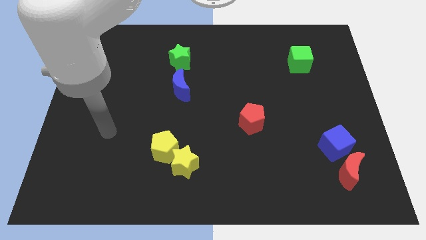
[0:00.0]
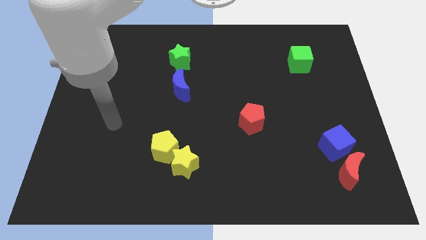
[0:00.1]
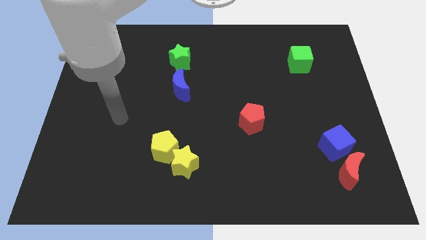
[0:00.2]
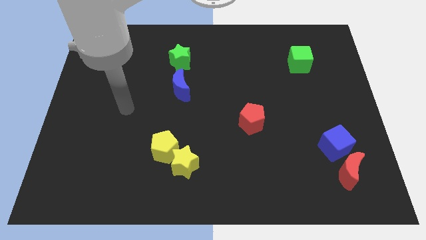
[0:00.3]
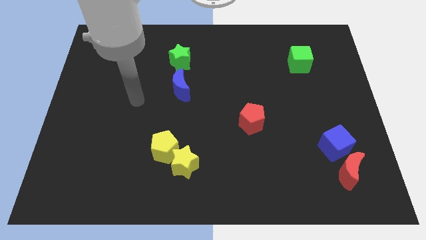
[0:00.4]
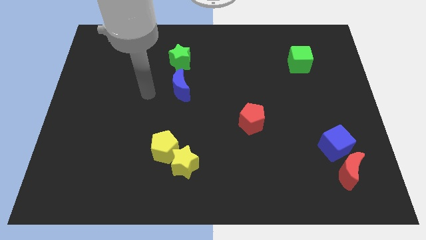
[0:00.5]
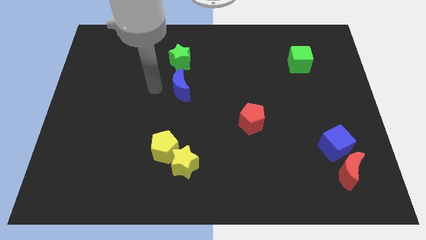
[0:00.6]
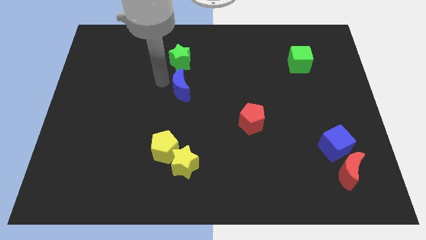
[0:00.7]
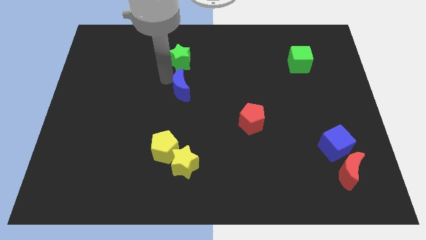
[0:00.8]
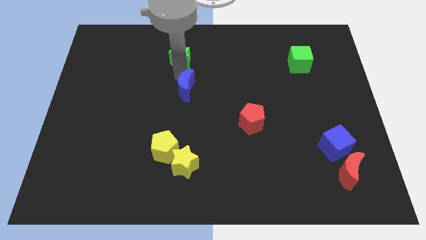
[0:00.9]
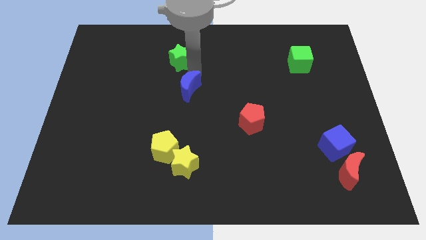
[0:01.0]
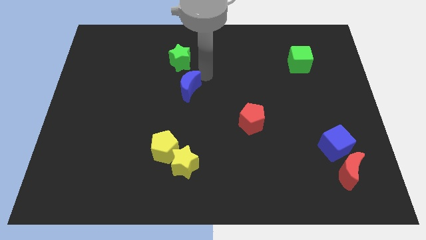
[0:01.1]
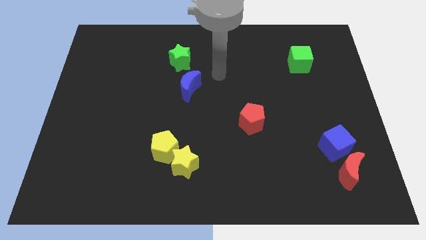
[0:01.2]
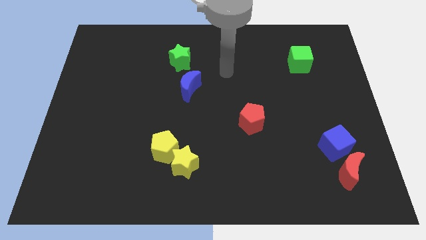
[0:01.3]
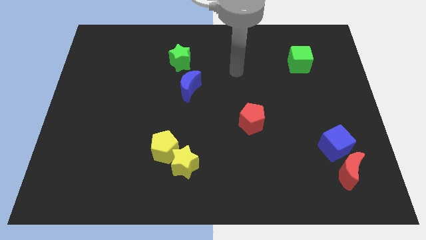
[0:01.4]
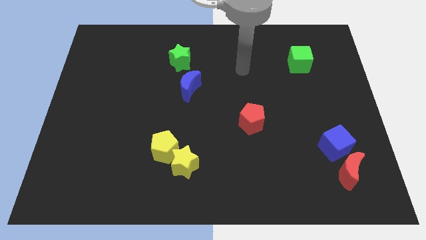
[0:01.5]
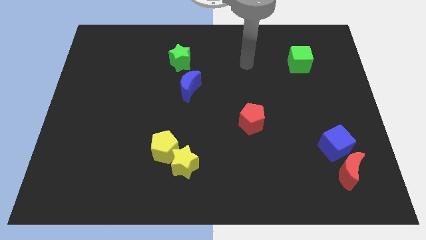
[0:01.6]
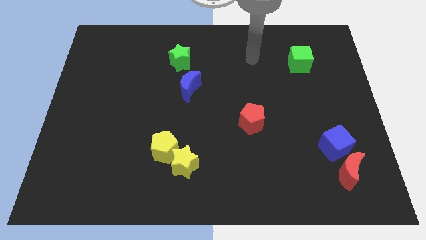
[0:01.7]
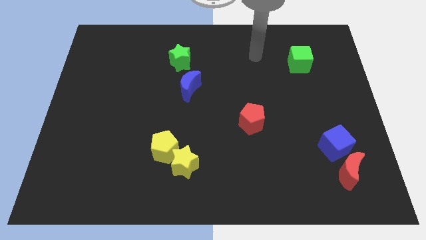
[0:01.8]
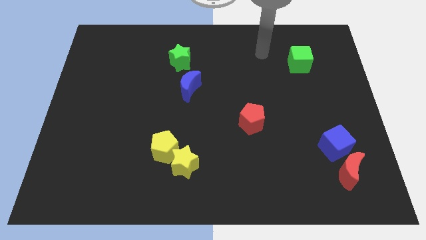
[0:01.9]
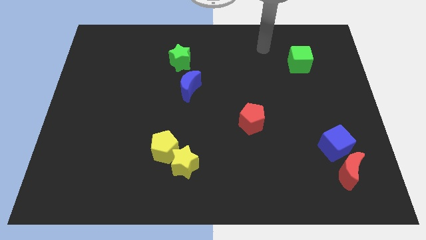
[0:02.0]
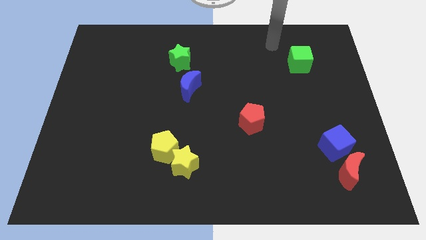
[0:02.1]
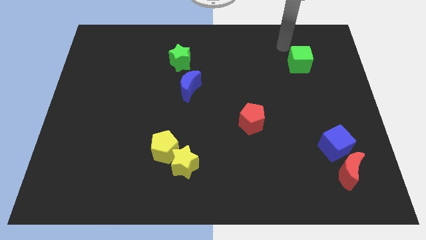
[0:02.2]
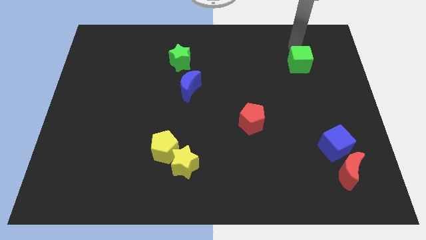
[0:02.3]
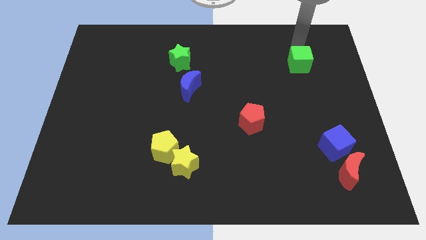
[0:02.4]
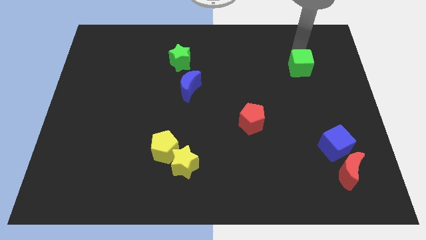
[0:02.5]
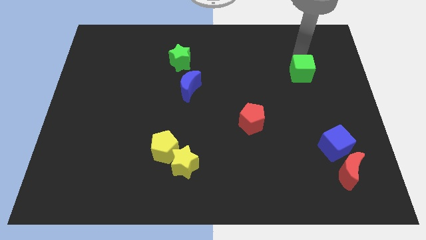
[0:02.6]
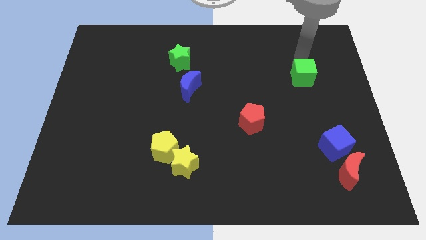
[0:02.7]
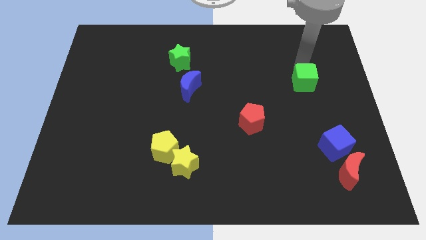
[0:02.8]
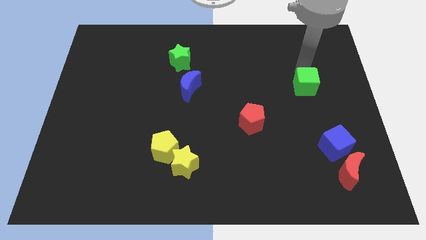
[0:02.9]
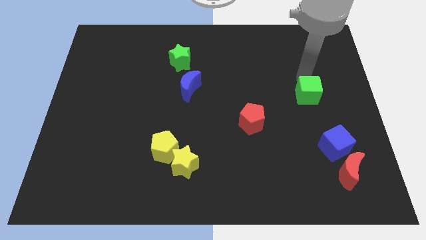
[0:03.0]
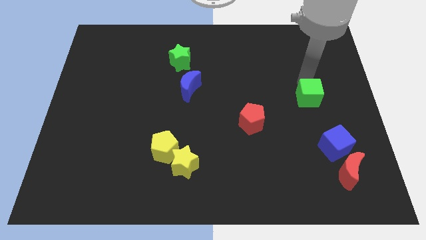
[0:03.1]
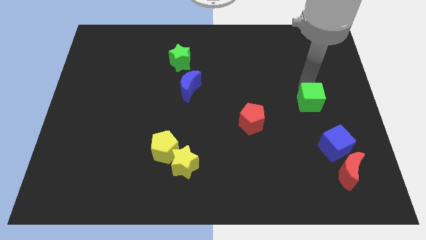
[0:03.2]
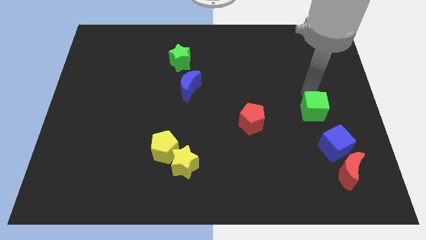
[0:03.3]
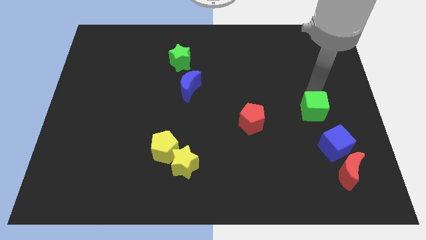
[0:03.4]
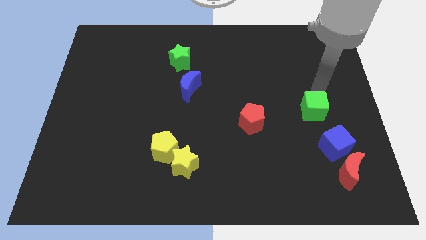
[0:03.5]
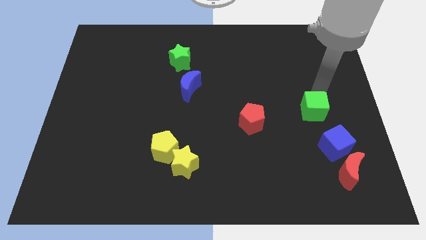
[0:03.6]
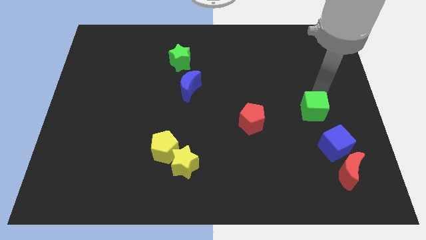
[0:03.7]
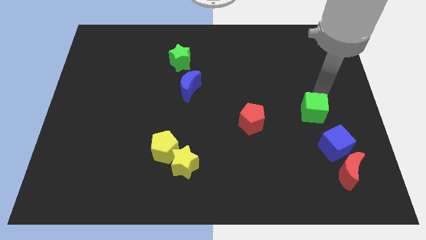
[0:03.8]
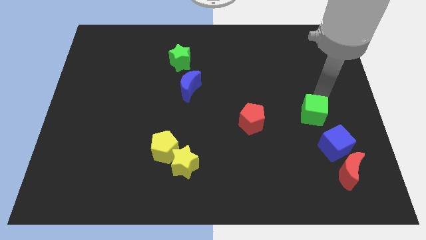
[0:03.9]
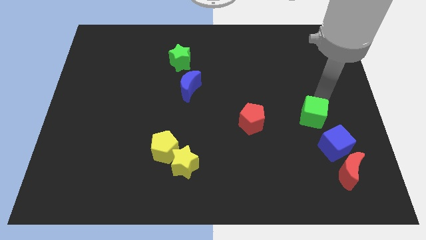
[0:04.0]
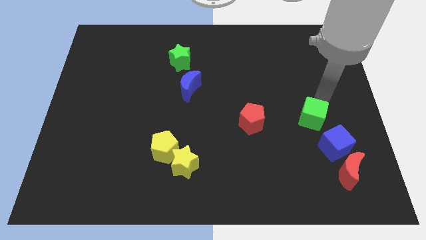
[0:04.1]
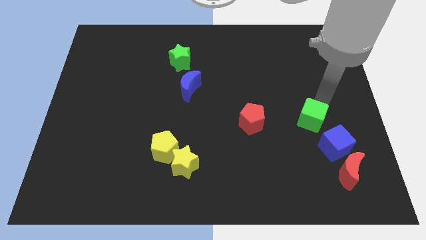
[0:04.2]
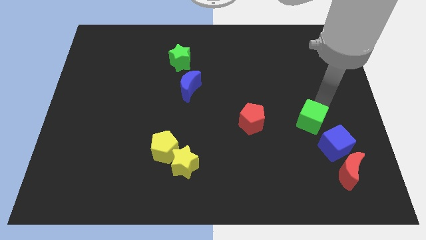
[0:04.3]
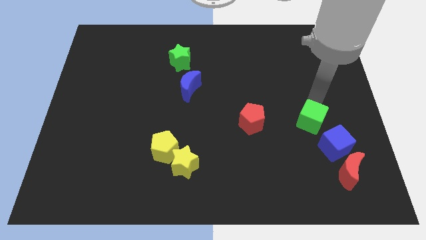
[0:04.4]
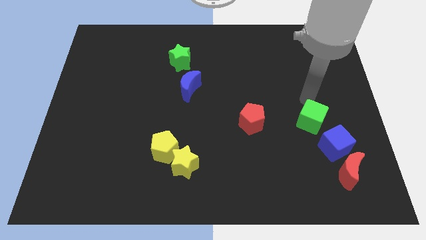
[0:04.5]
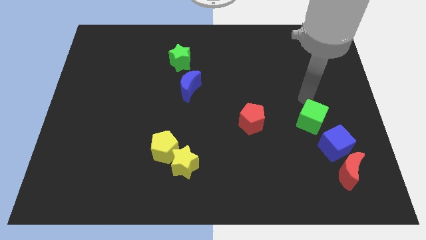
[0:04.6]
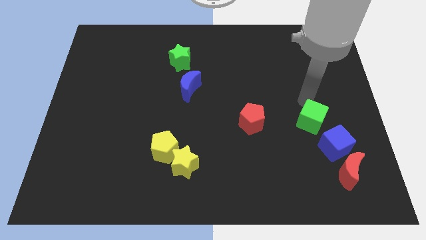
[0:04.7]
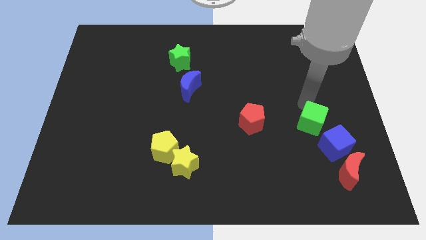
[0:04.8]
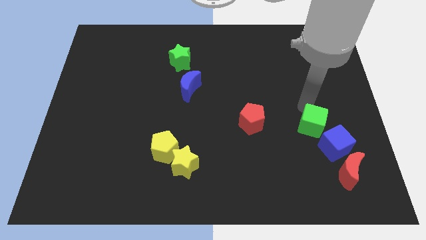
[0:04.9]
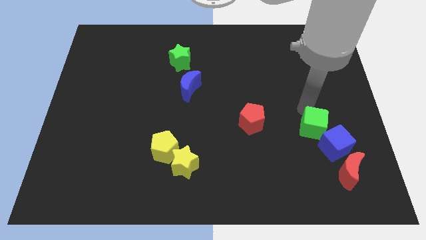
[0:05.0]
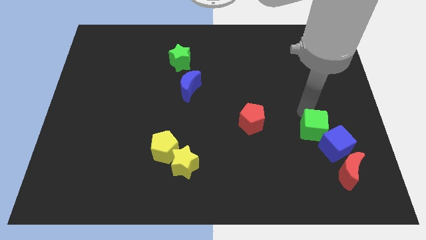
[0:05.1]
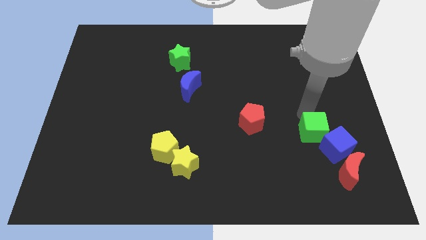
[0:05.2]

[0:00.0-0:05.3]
move the green cube diagonally up and to the left of the red moon

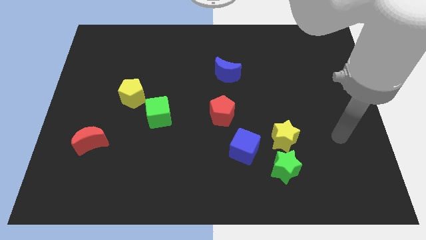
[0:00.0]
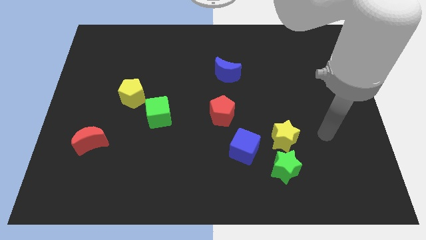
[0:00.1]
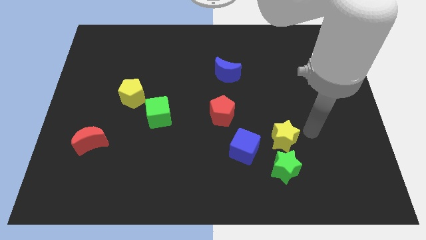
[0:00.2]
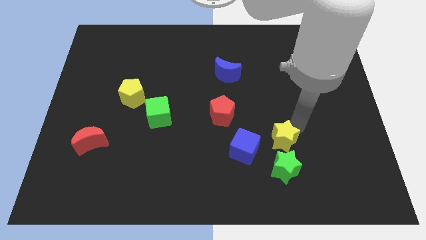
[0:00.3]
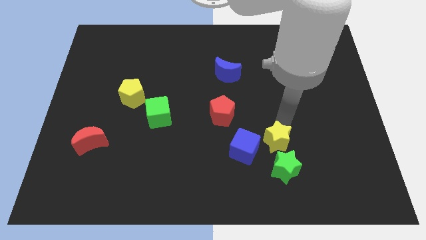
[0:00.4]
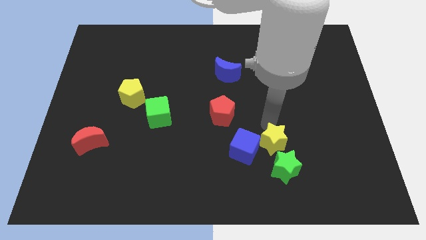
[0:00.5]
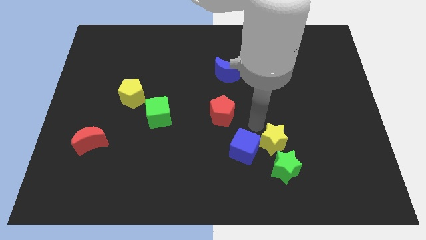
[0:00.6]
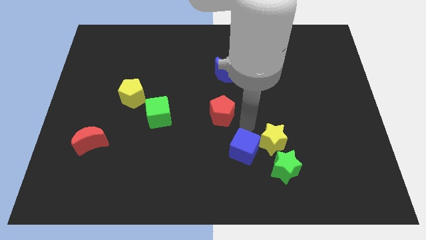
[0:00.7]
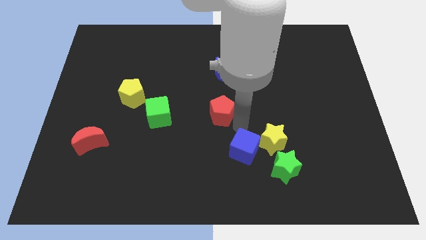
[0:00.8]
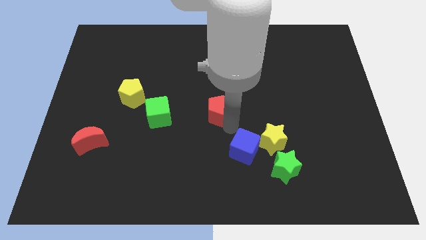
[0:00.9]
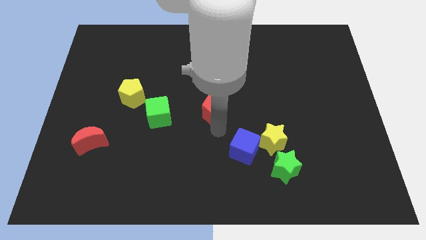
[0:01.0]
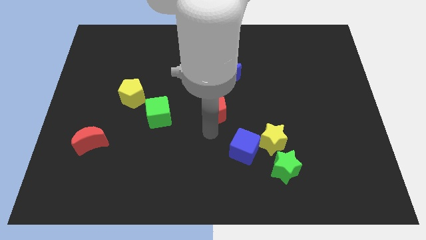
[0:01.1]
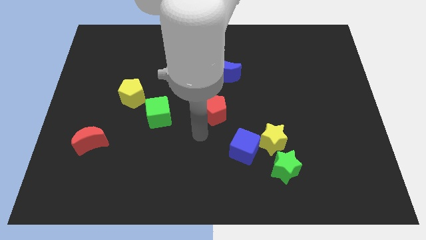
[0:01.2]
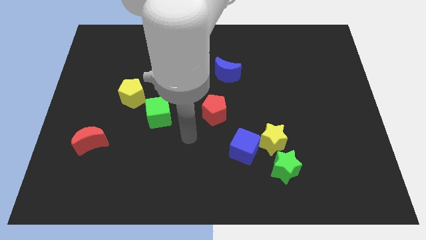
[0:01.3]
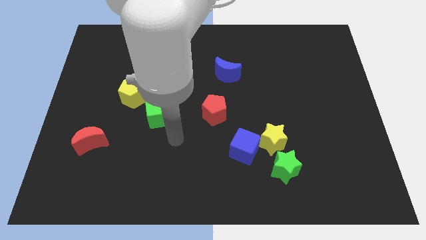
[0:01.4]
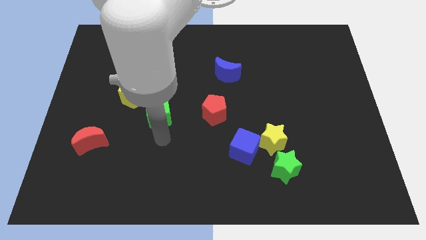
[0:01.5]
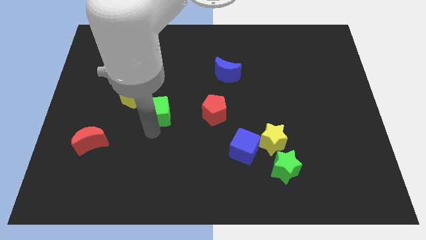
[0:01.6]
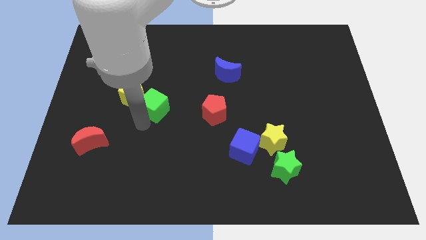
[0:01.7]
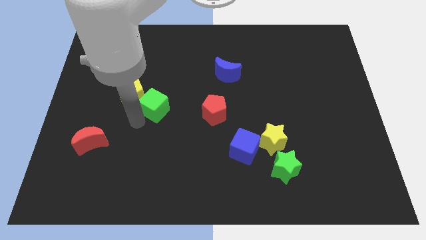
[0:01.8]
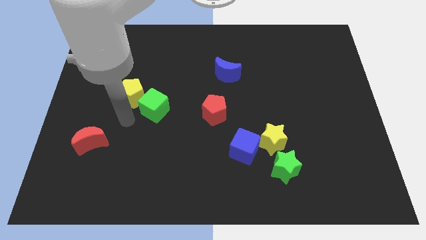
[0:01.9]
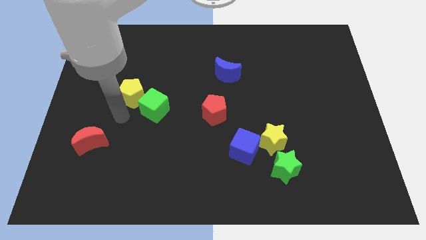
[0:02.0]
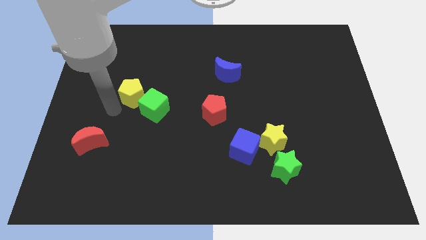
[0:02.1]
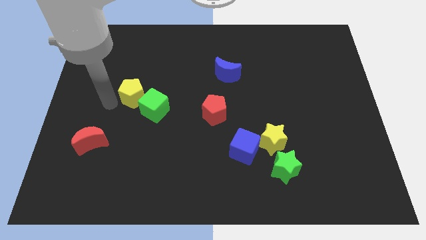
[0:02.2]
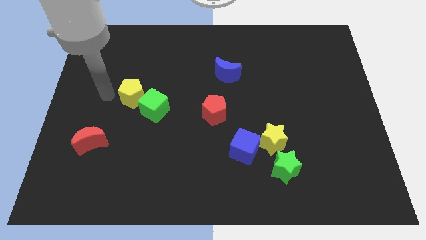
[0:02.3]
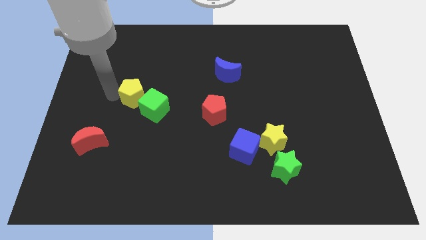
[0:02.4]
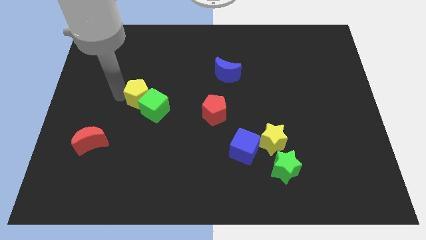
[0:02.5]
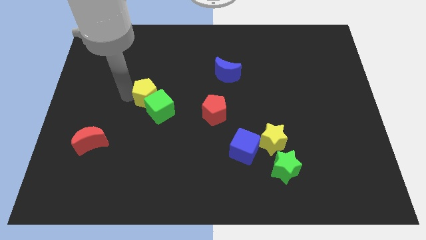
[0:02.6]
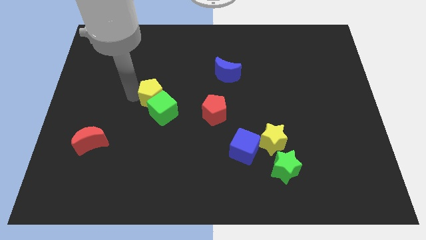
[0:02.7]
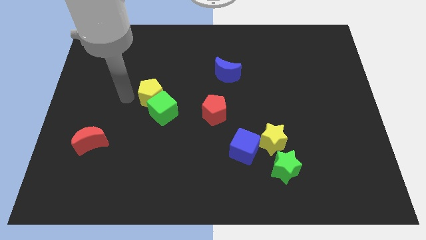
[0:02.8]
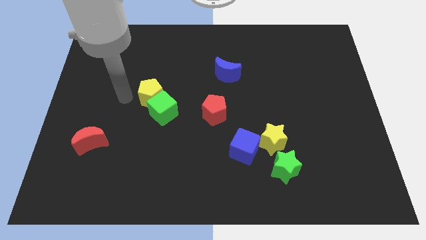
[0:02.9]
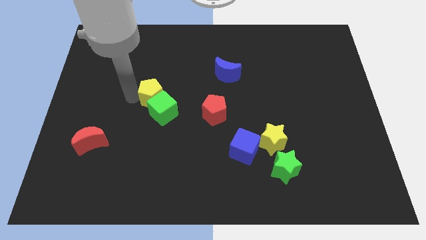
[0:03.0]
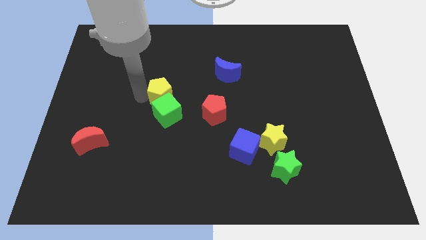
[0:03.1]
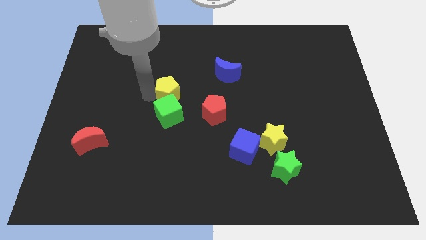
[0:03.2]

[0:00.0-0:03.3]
slide the yellow pentagon to the top right side of the green cube
